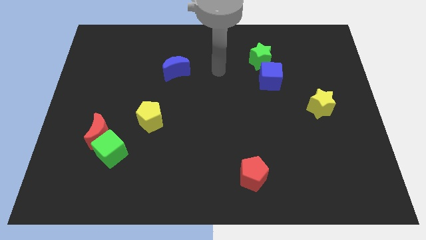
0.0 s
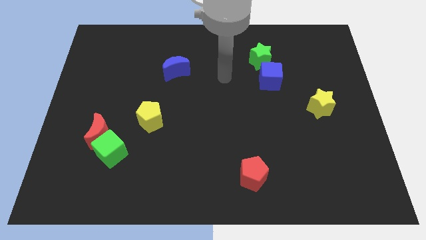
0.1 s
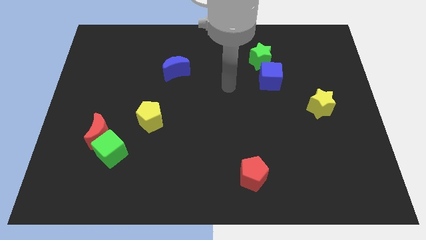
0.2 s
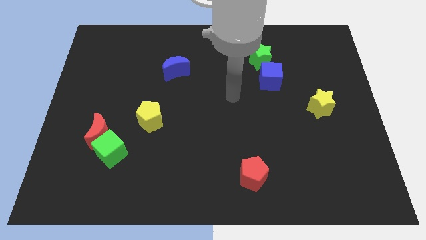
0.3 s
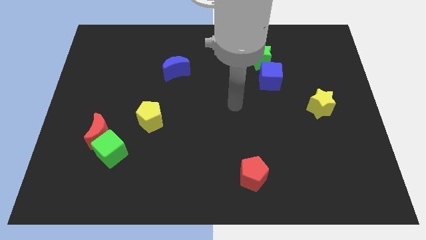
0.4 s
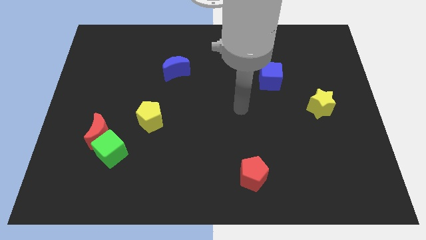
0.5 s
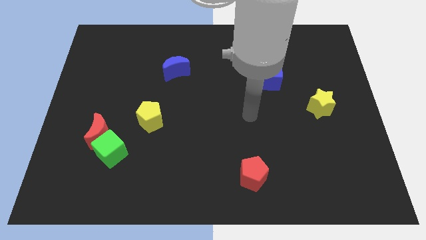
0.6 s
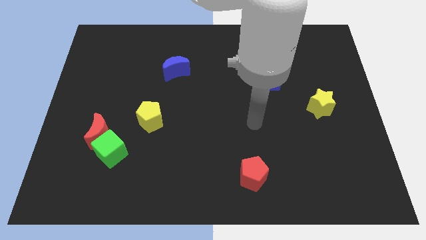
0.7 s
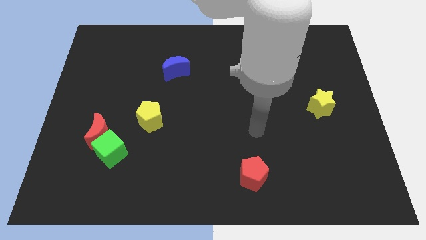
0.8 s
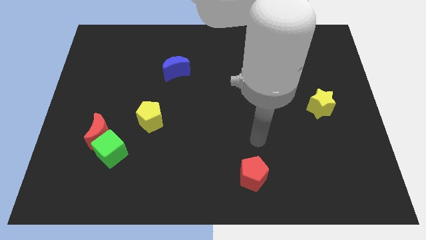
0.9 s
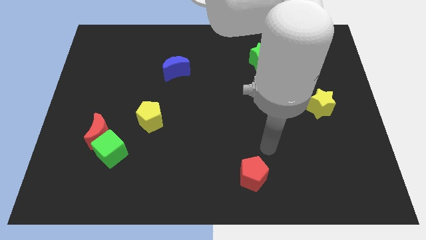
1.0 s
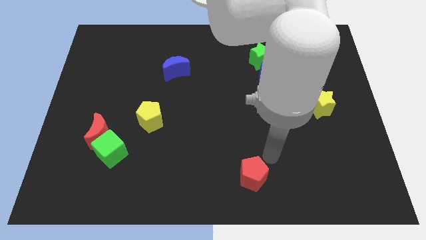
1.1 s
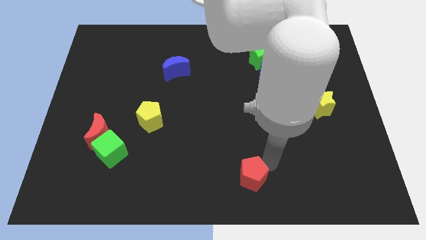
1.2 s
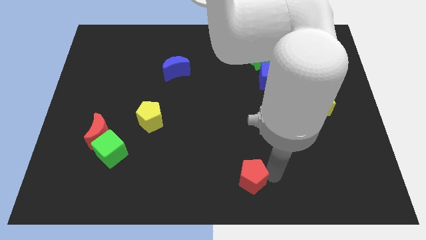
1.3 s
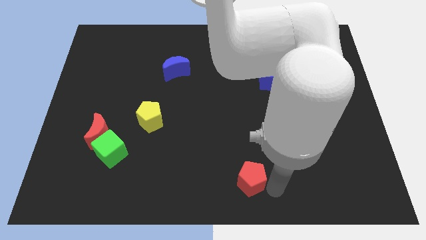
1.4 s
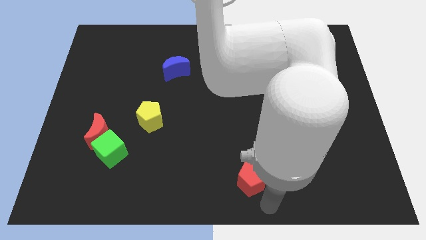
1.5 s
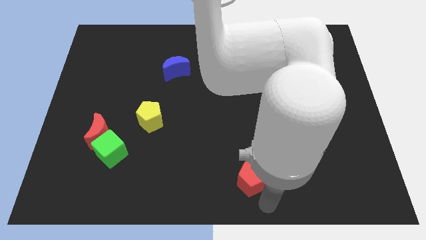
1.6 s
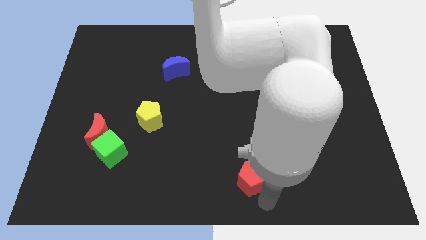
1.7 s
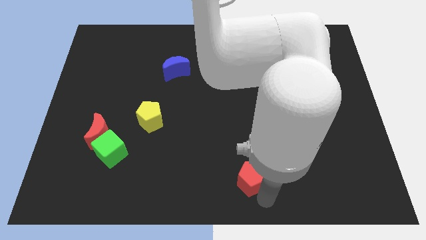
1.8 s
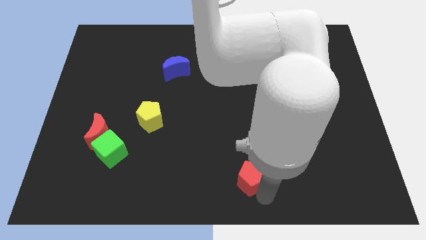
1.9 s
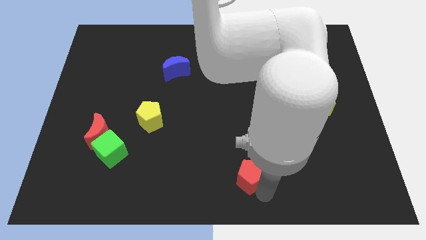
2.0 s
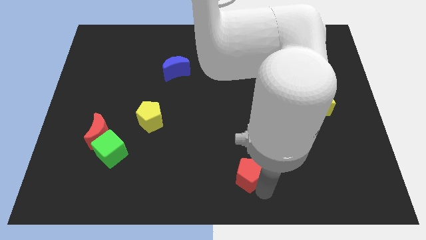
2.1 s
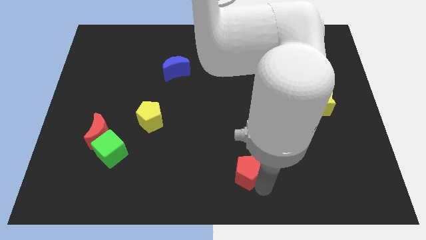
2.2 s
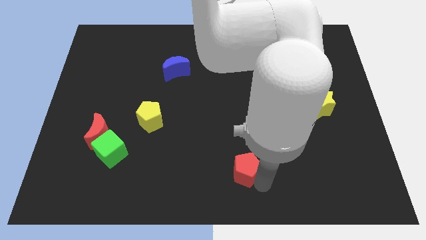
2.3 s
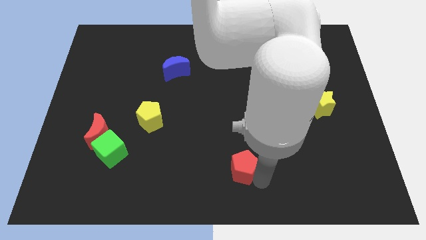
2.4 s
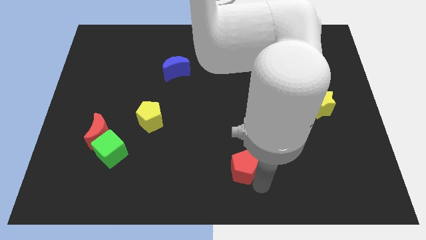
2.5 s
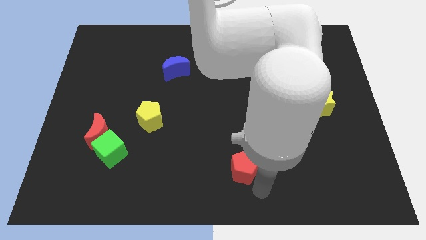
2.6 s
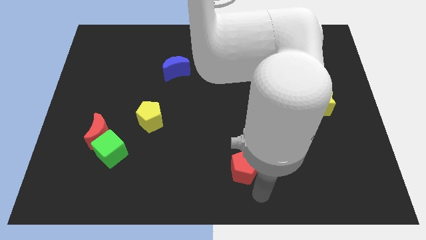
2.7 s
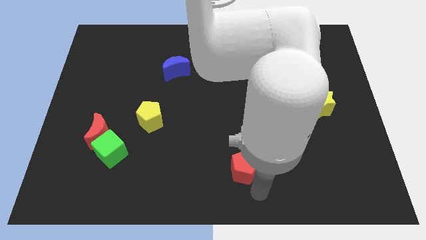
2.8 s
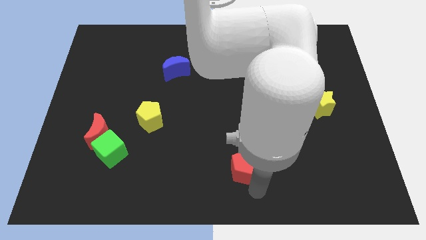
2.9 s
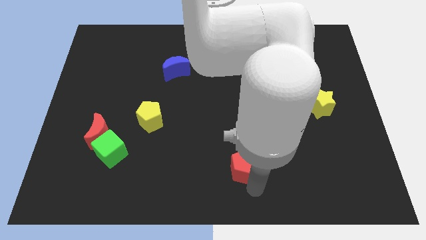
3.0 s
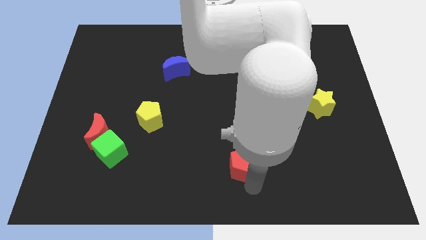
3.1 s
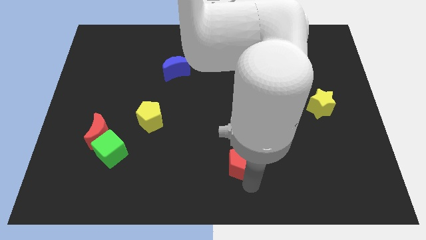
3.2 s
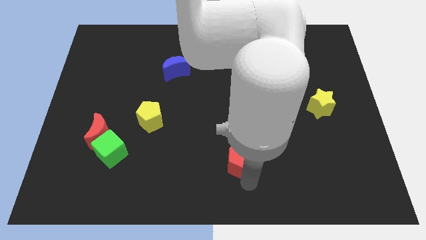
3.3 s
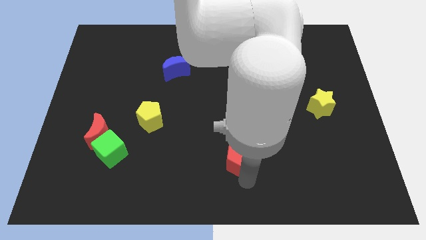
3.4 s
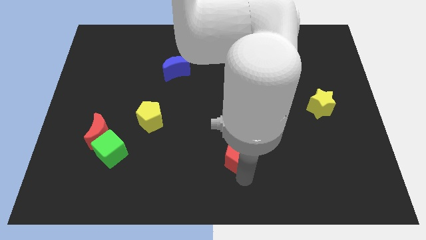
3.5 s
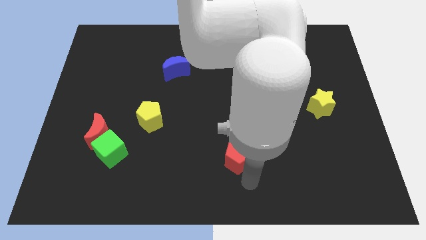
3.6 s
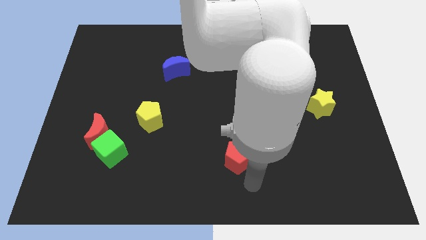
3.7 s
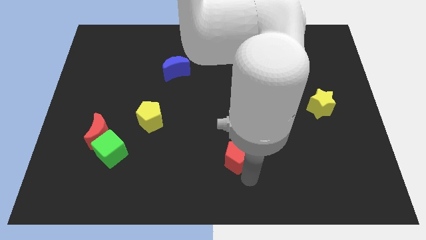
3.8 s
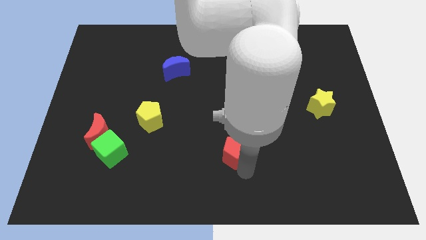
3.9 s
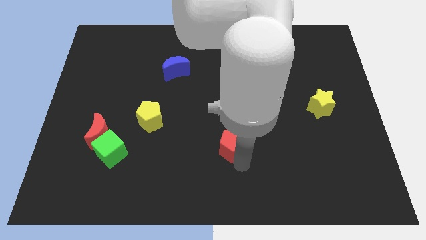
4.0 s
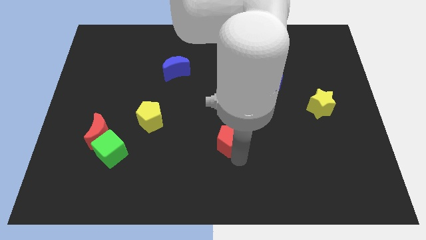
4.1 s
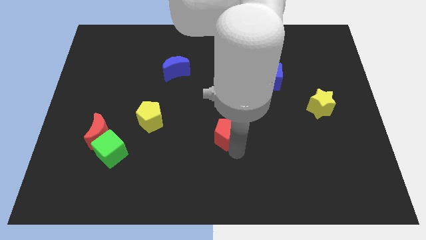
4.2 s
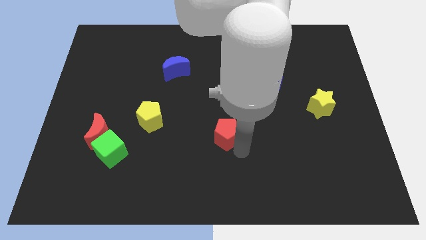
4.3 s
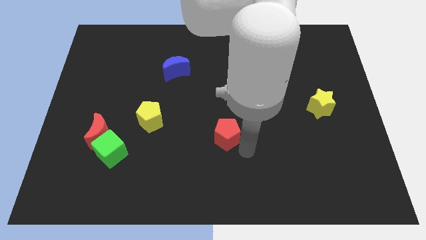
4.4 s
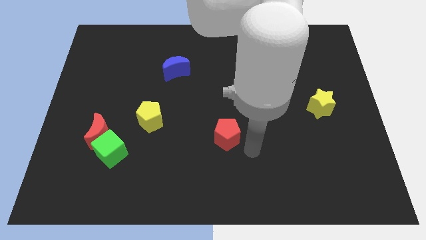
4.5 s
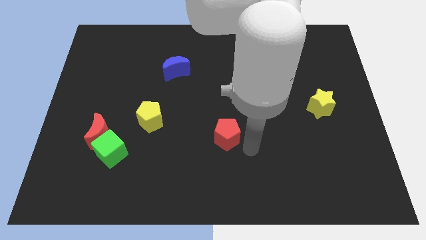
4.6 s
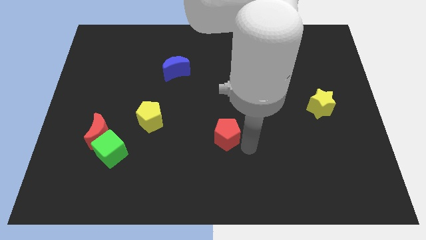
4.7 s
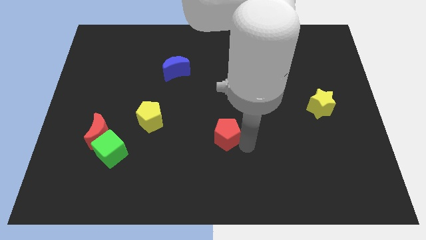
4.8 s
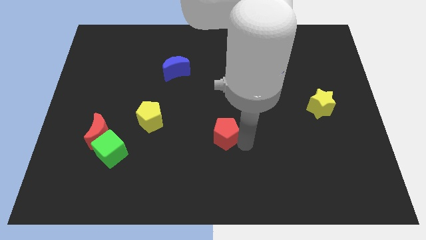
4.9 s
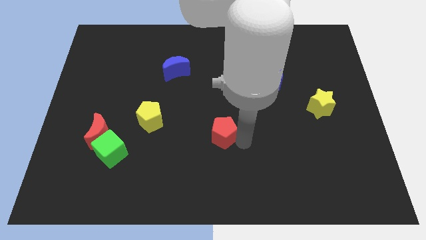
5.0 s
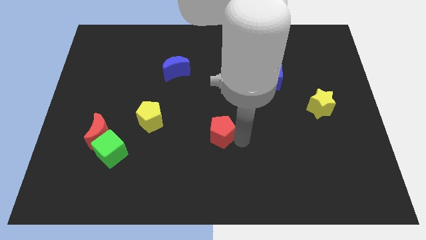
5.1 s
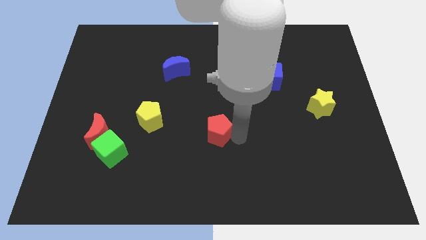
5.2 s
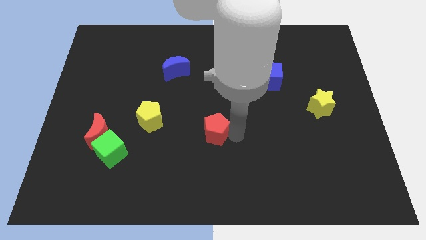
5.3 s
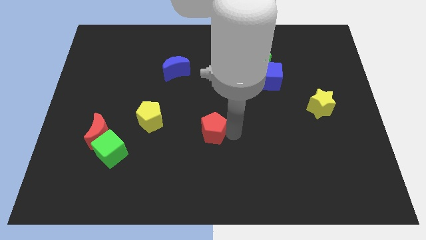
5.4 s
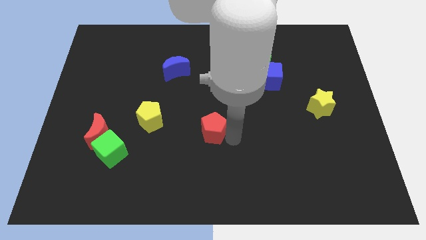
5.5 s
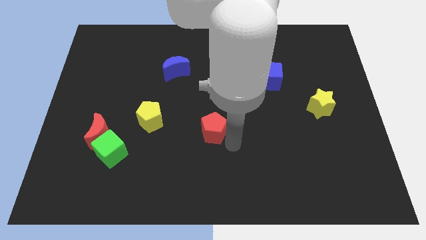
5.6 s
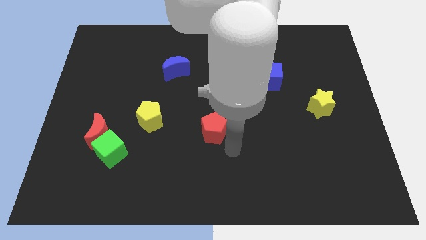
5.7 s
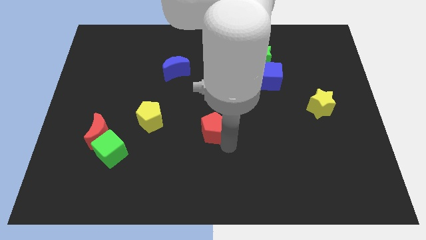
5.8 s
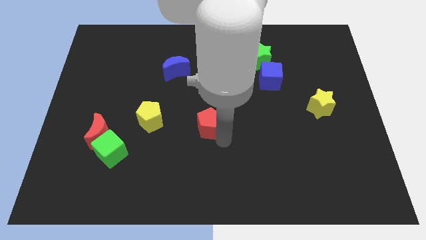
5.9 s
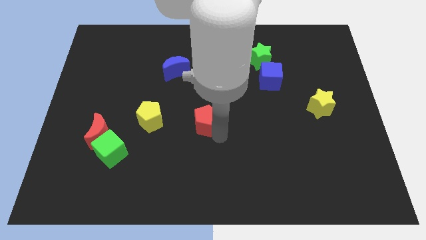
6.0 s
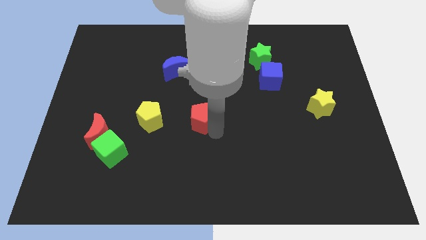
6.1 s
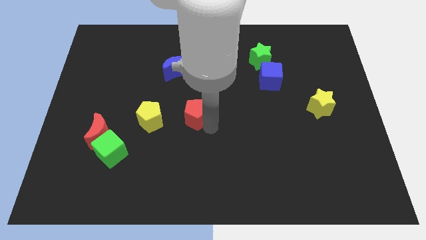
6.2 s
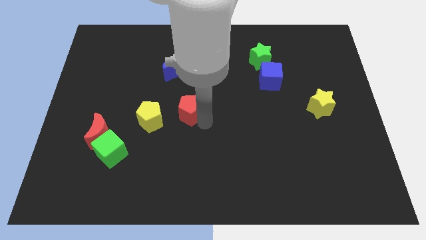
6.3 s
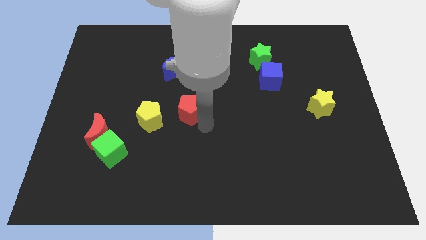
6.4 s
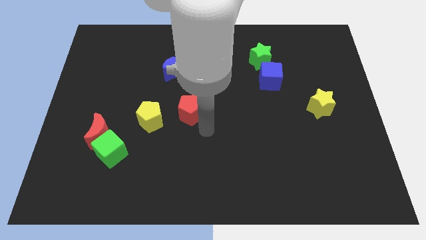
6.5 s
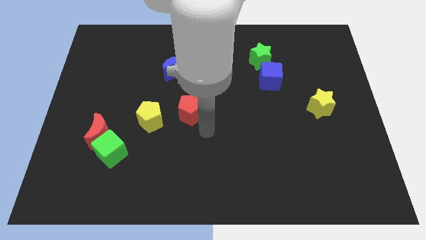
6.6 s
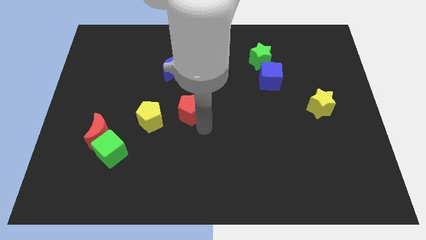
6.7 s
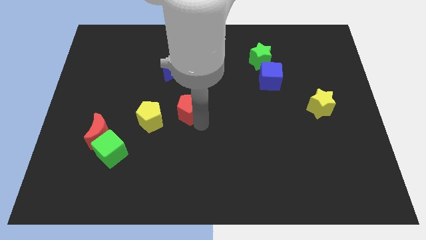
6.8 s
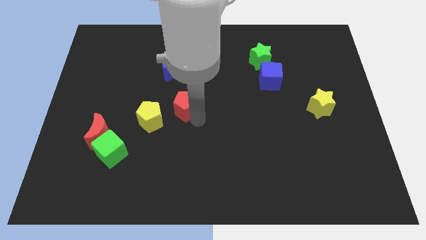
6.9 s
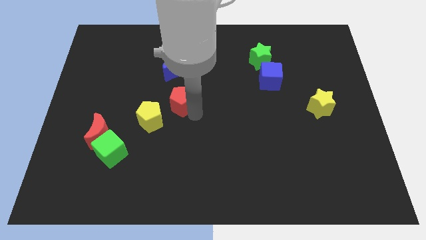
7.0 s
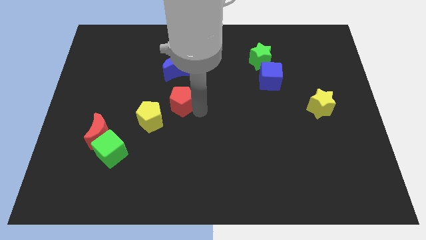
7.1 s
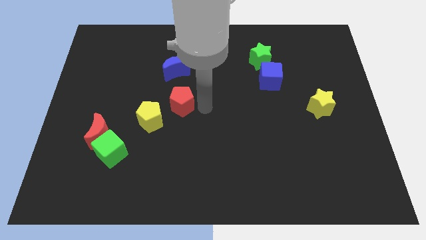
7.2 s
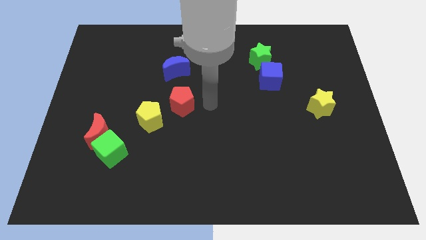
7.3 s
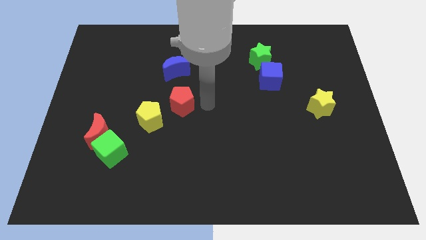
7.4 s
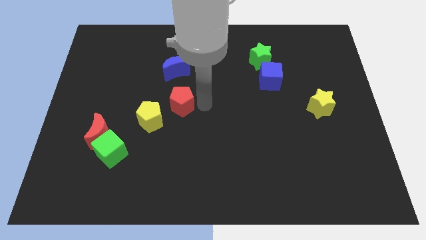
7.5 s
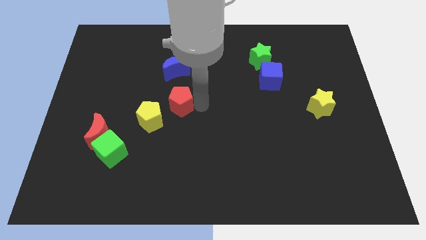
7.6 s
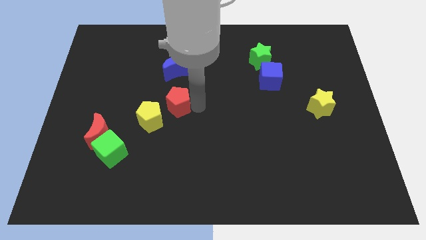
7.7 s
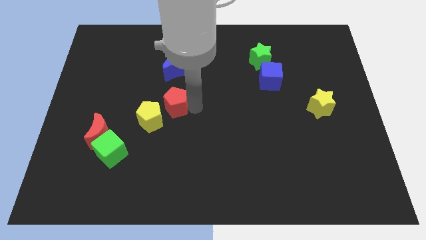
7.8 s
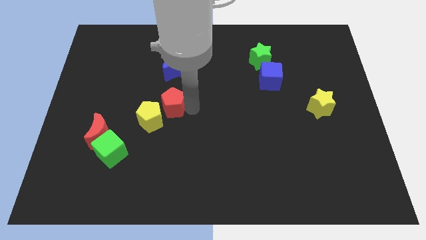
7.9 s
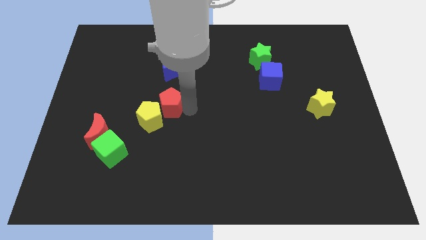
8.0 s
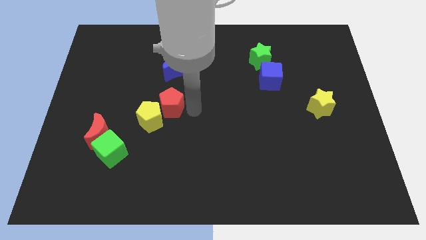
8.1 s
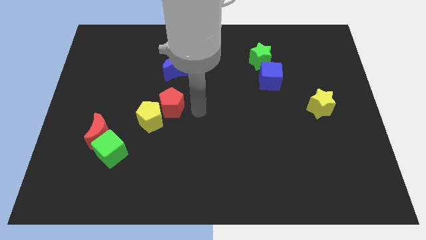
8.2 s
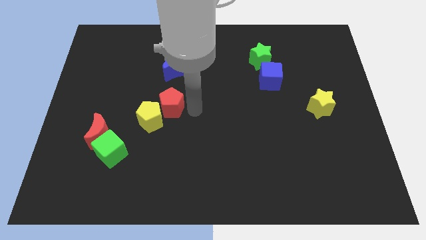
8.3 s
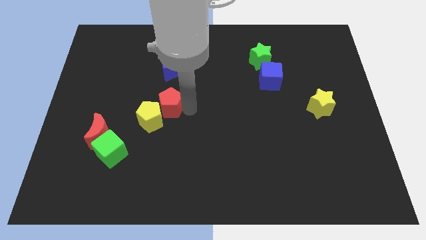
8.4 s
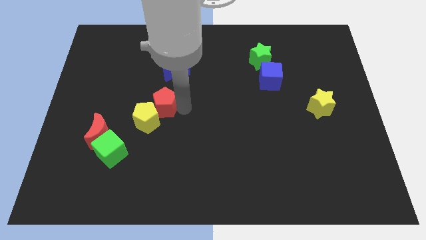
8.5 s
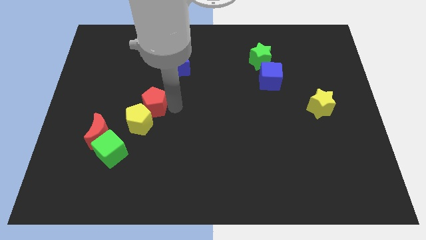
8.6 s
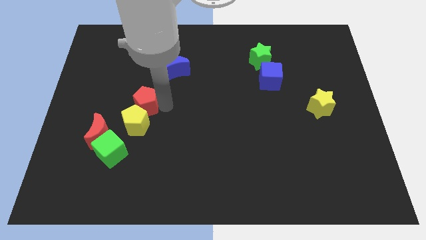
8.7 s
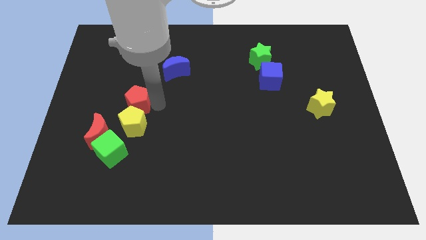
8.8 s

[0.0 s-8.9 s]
move the red pentagon diagonally up and to the left of the yellow pentagon
